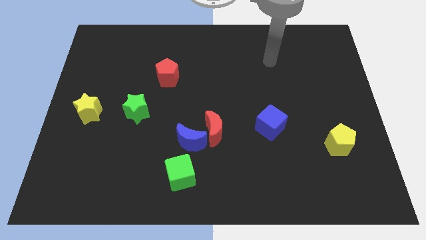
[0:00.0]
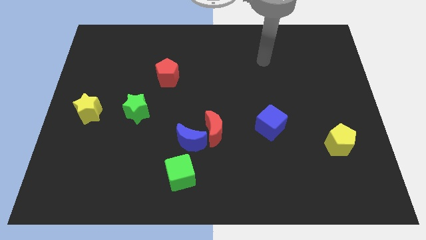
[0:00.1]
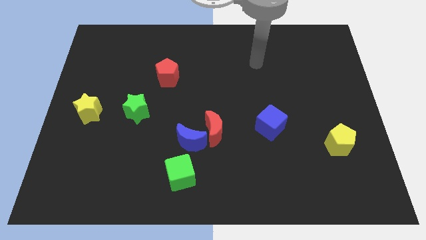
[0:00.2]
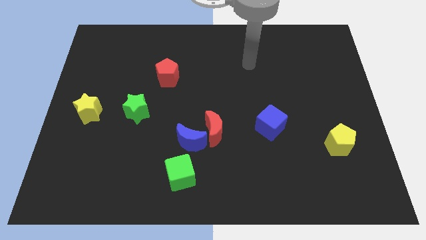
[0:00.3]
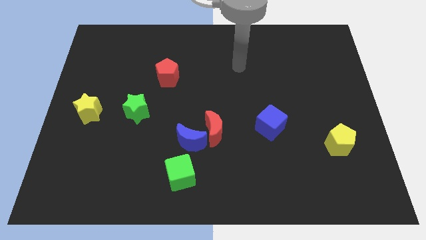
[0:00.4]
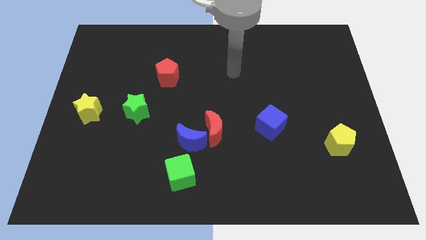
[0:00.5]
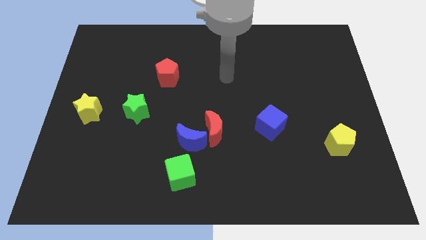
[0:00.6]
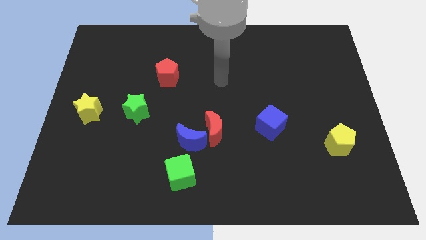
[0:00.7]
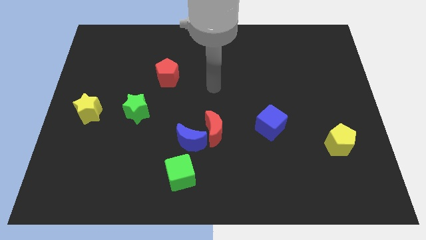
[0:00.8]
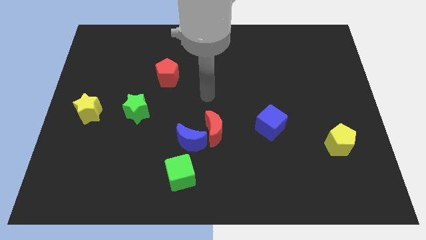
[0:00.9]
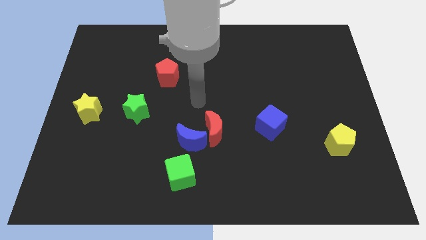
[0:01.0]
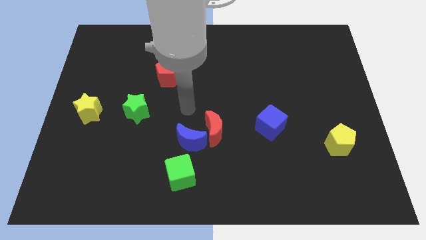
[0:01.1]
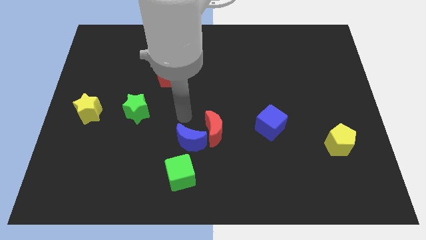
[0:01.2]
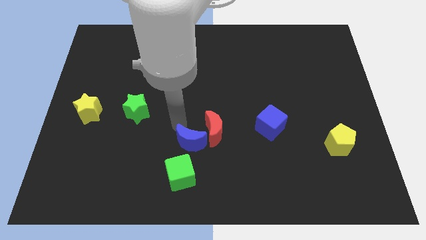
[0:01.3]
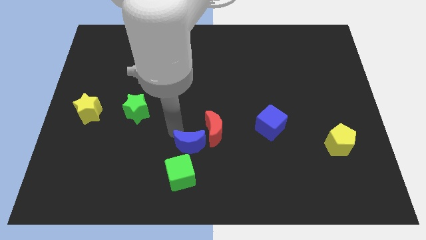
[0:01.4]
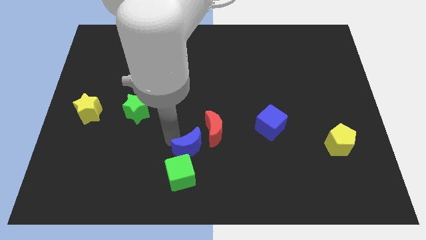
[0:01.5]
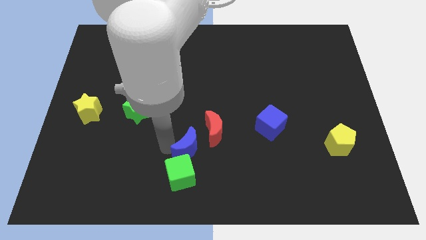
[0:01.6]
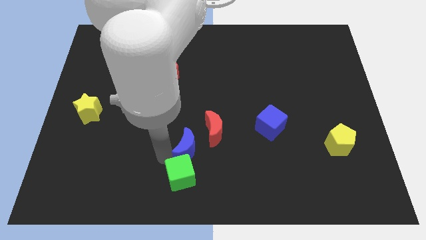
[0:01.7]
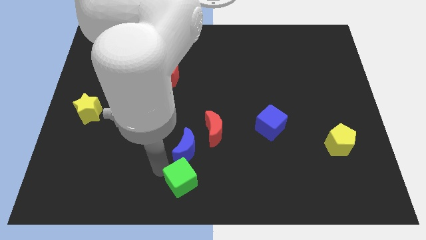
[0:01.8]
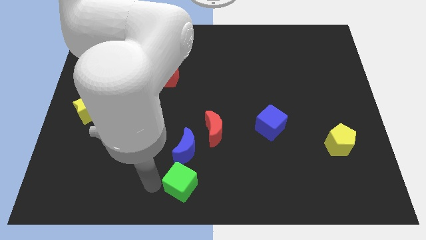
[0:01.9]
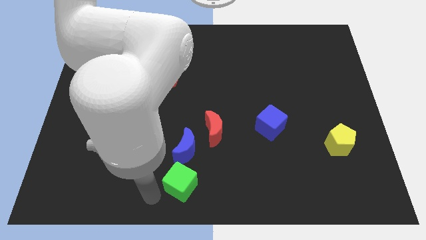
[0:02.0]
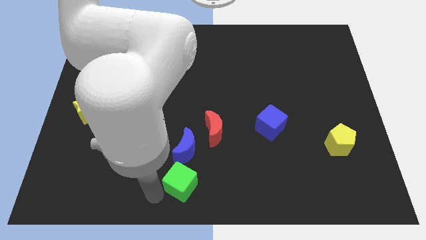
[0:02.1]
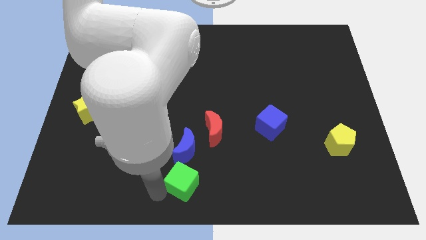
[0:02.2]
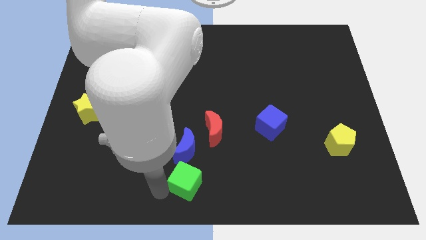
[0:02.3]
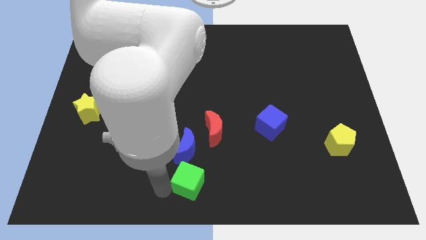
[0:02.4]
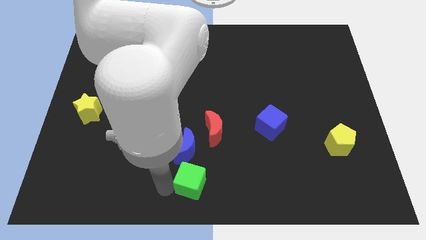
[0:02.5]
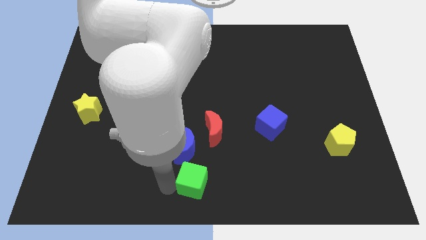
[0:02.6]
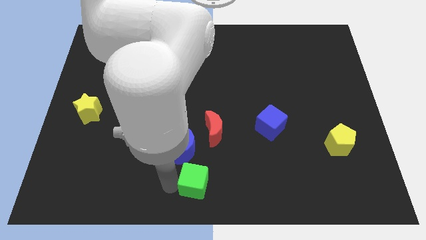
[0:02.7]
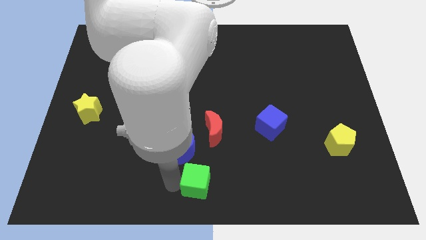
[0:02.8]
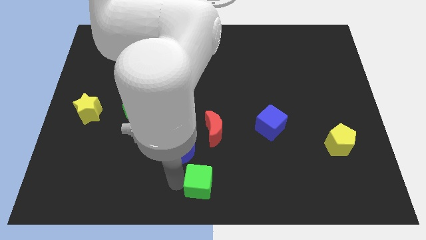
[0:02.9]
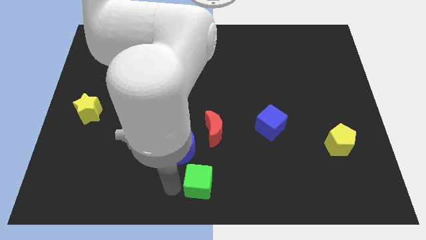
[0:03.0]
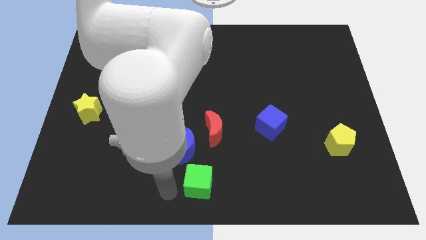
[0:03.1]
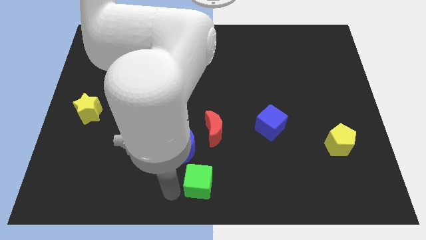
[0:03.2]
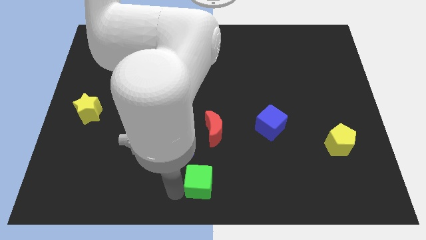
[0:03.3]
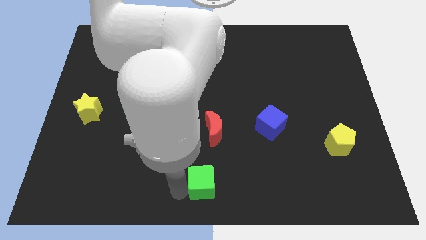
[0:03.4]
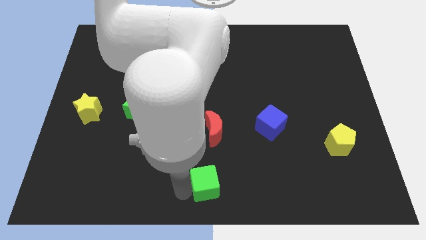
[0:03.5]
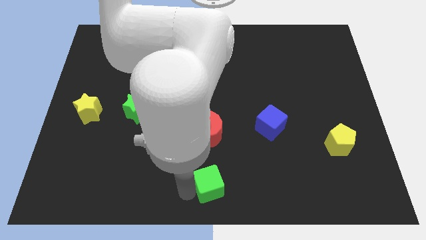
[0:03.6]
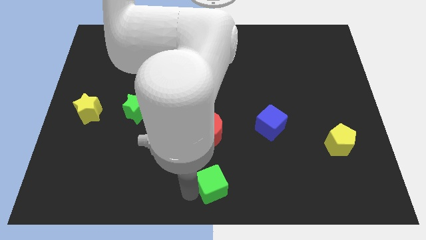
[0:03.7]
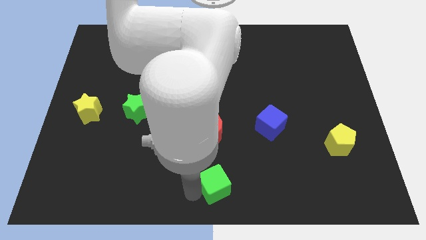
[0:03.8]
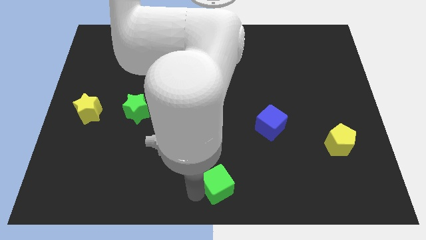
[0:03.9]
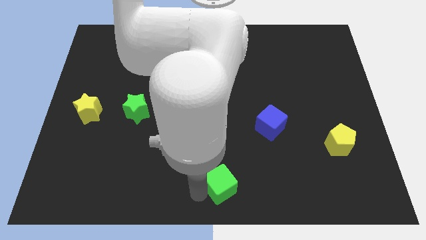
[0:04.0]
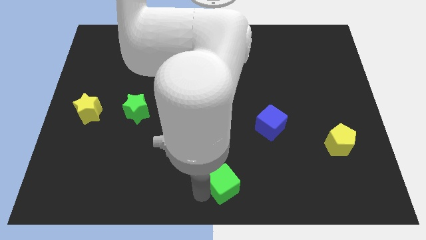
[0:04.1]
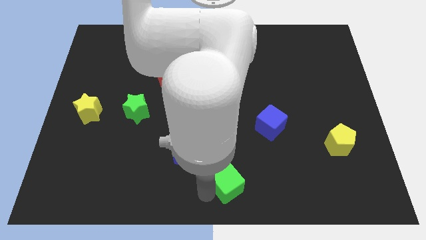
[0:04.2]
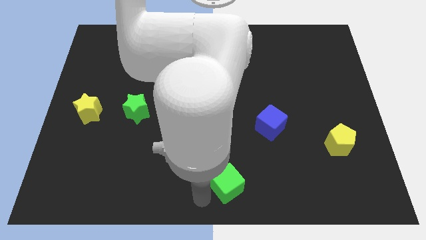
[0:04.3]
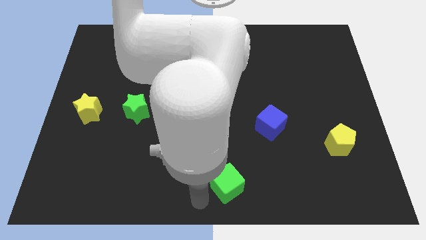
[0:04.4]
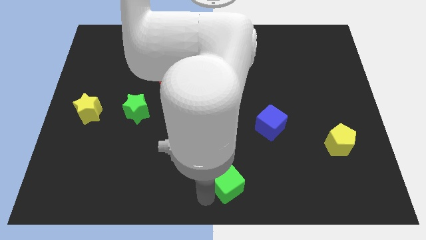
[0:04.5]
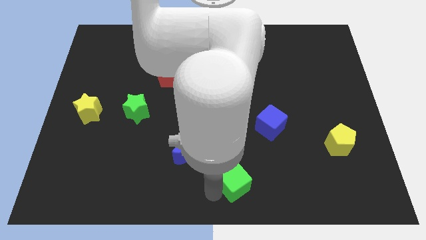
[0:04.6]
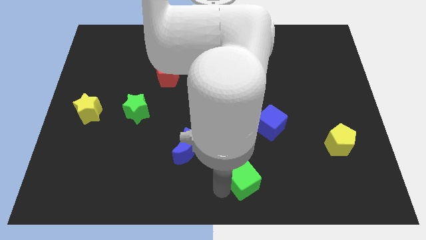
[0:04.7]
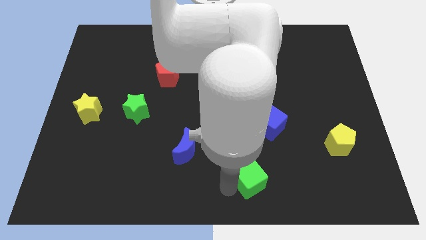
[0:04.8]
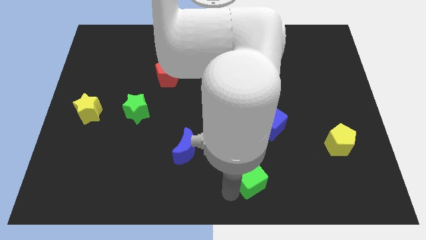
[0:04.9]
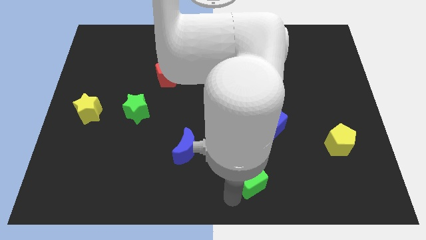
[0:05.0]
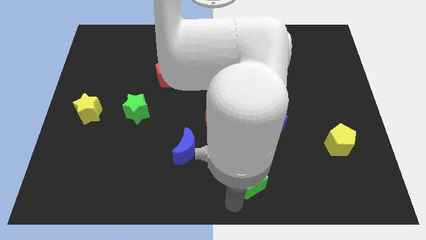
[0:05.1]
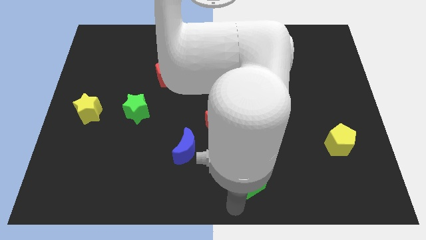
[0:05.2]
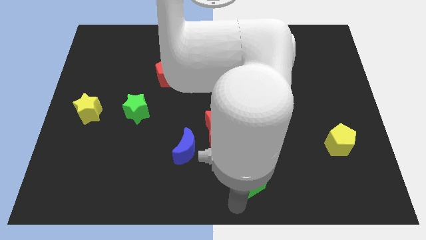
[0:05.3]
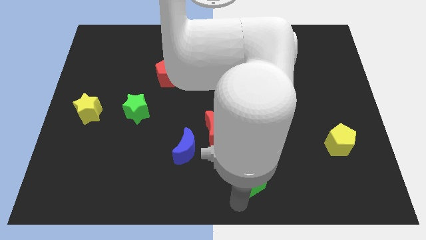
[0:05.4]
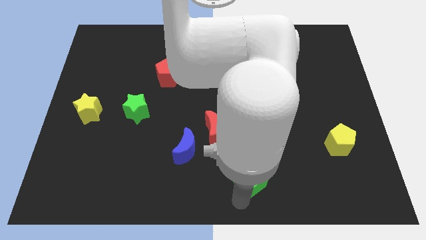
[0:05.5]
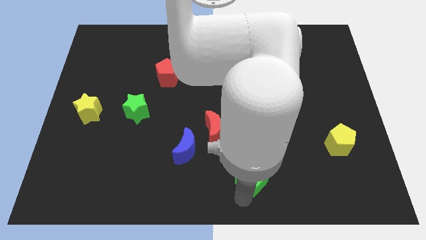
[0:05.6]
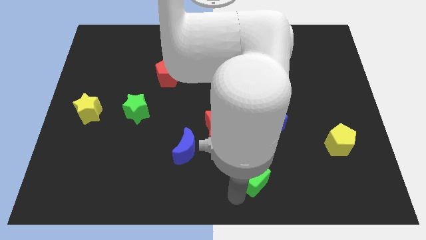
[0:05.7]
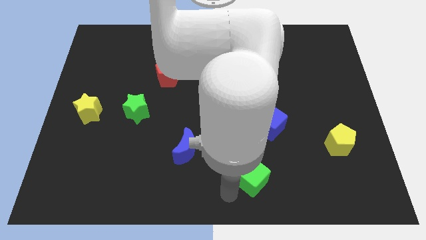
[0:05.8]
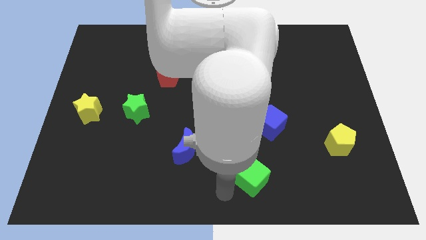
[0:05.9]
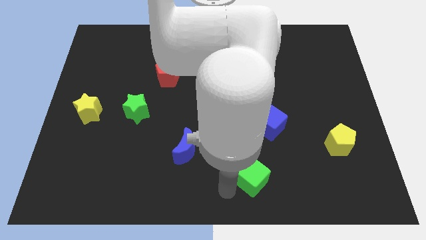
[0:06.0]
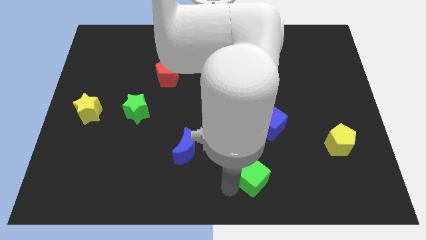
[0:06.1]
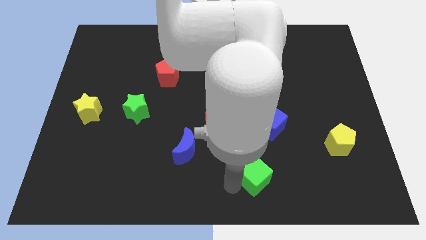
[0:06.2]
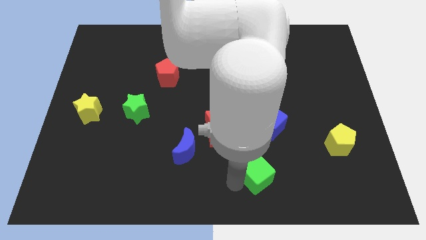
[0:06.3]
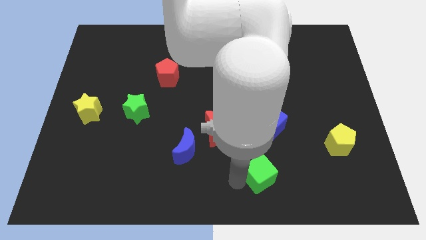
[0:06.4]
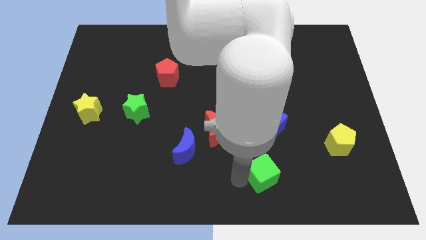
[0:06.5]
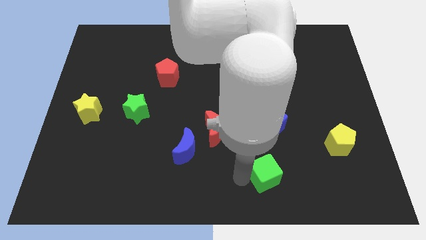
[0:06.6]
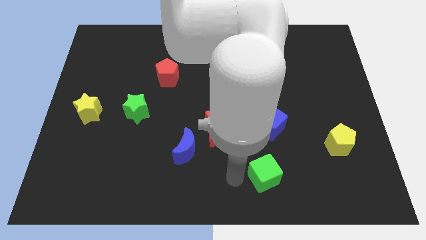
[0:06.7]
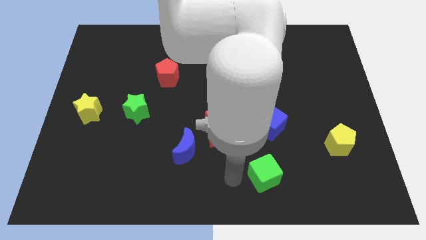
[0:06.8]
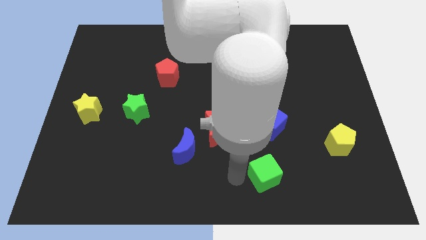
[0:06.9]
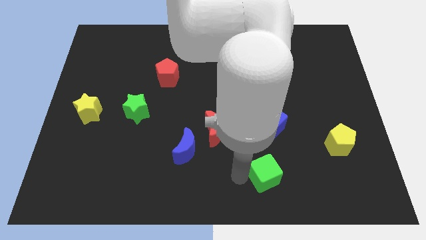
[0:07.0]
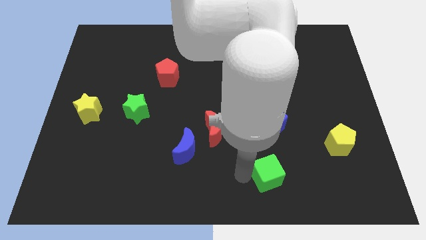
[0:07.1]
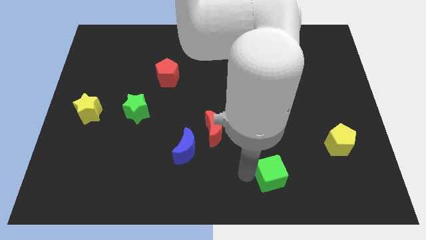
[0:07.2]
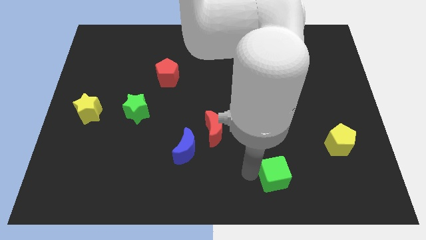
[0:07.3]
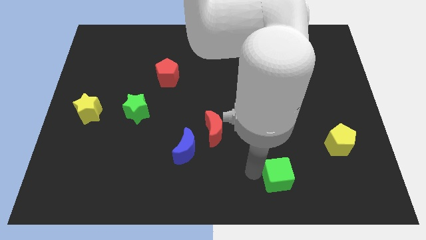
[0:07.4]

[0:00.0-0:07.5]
move the green cube right

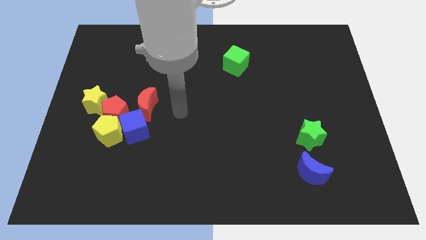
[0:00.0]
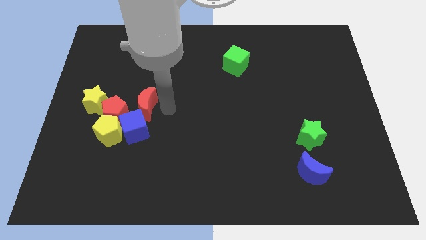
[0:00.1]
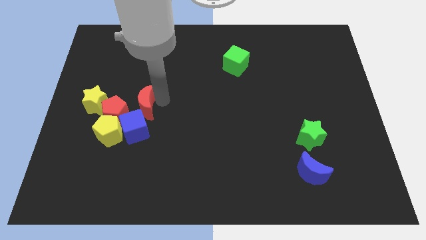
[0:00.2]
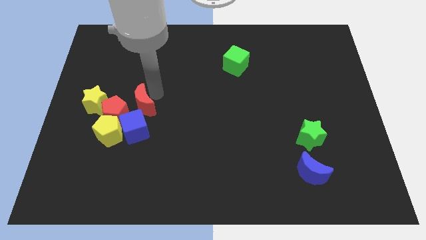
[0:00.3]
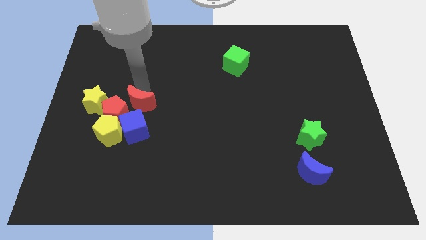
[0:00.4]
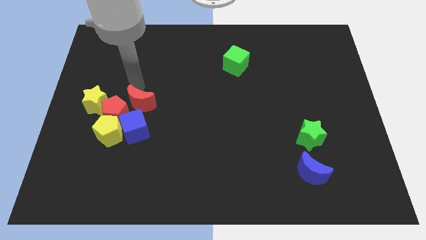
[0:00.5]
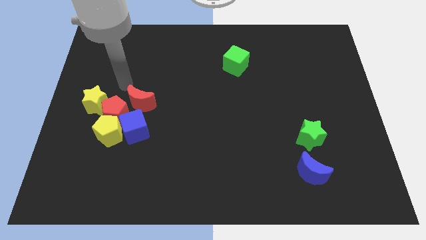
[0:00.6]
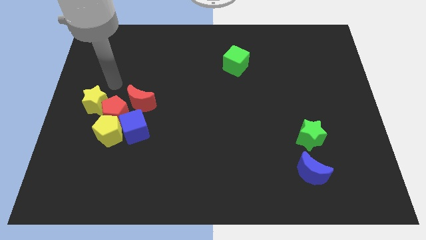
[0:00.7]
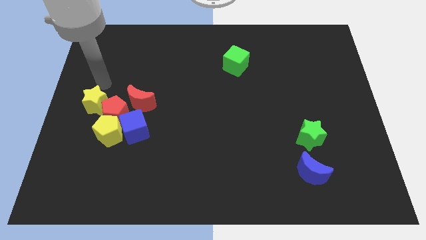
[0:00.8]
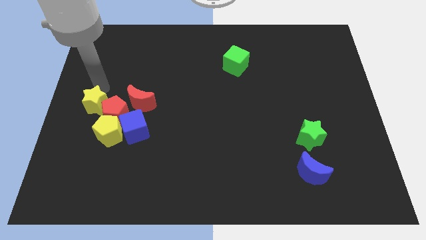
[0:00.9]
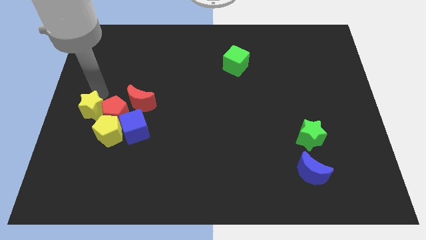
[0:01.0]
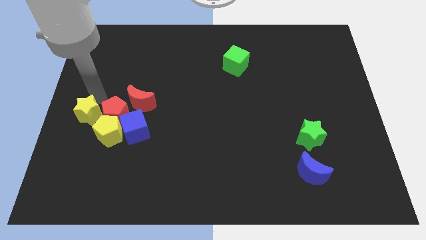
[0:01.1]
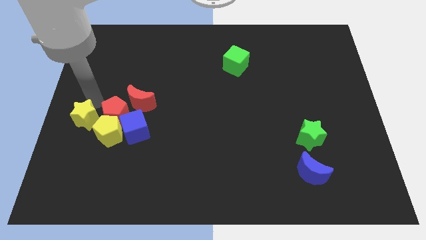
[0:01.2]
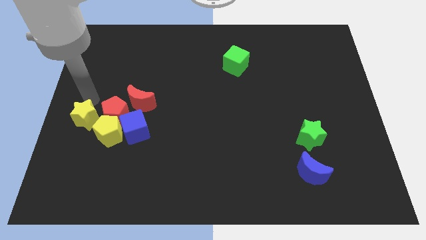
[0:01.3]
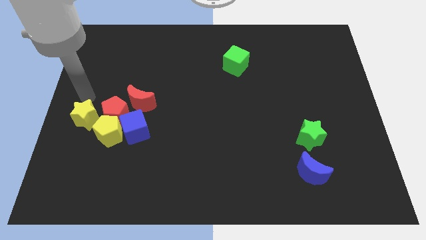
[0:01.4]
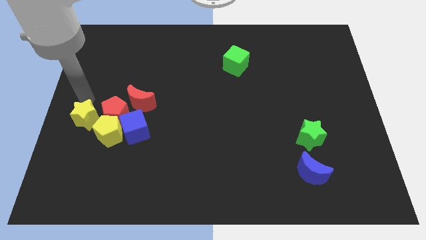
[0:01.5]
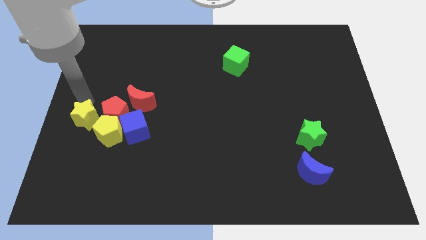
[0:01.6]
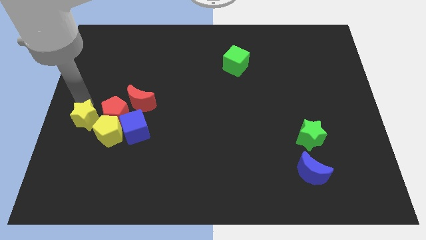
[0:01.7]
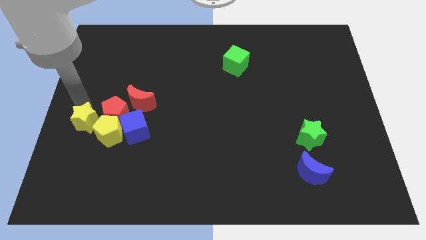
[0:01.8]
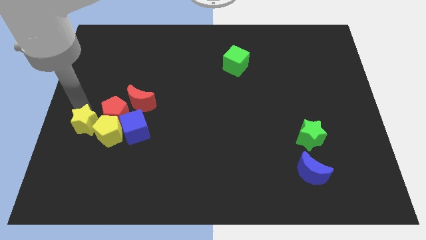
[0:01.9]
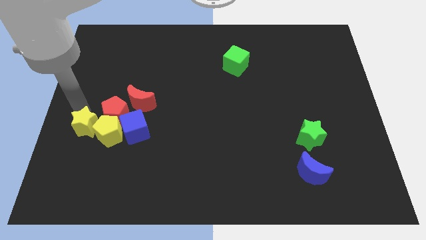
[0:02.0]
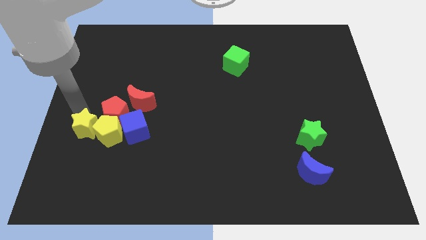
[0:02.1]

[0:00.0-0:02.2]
move the yellow star slightly downwards
